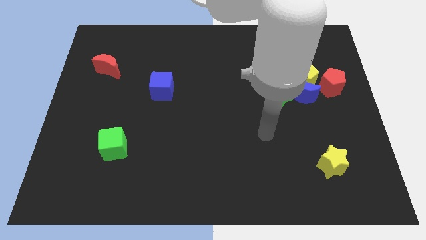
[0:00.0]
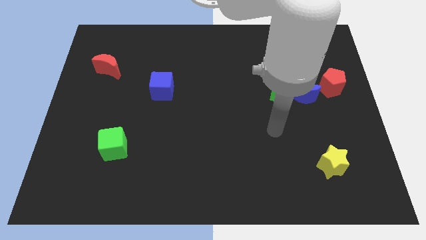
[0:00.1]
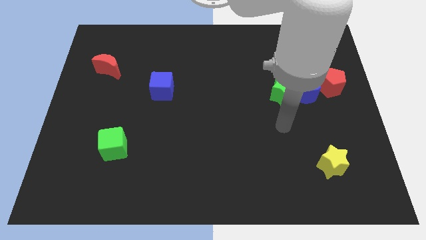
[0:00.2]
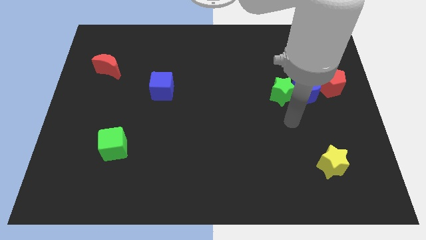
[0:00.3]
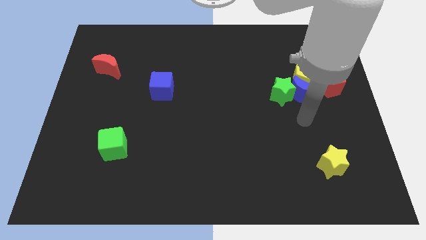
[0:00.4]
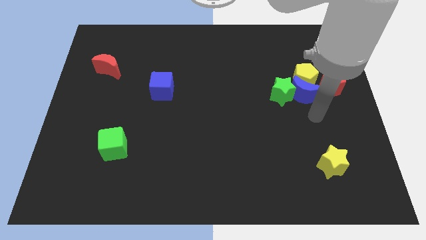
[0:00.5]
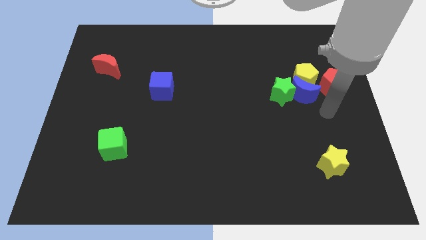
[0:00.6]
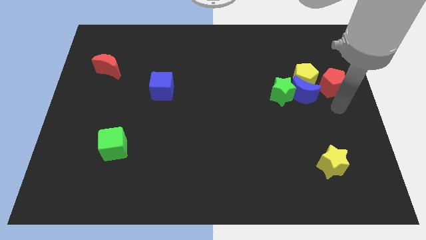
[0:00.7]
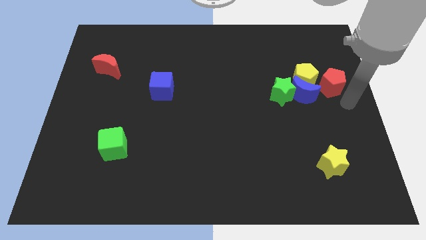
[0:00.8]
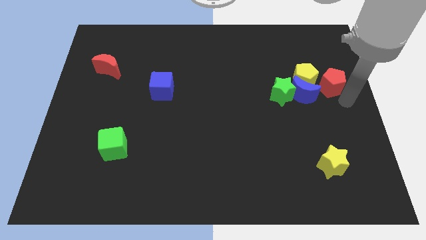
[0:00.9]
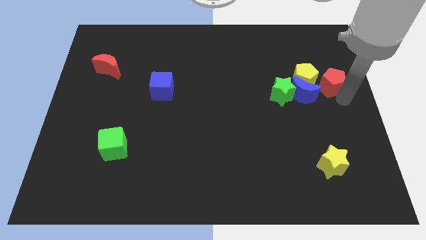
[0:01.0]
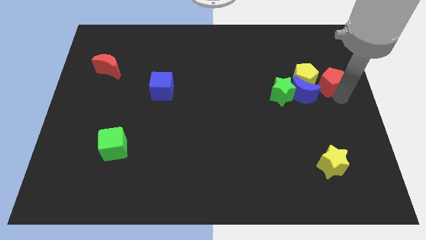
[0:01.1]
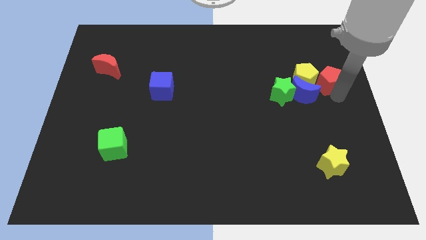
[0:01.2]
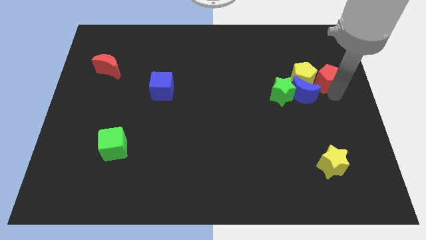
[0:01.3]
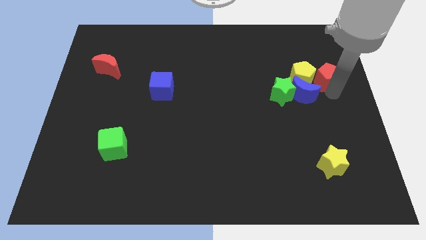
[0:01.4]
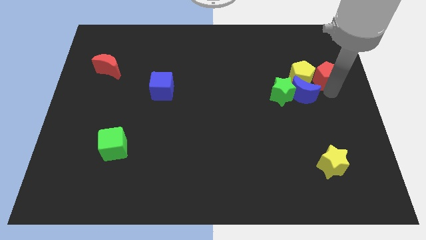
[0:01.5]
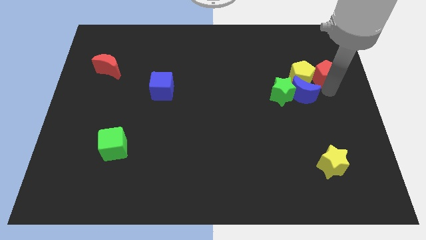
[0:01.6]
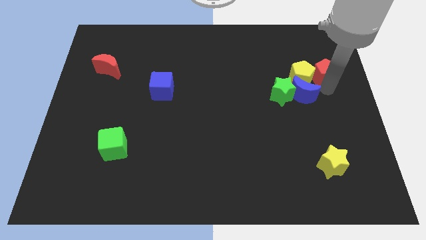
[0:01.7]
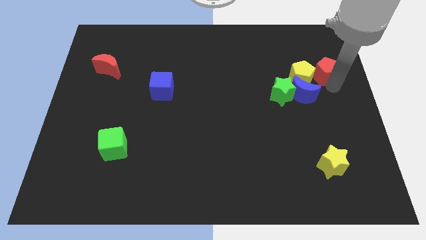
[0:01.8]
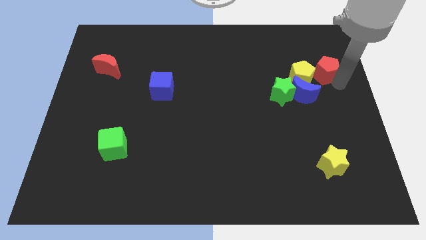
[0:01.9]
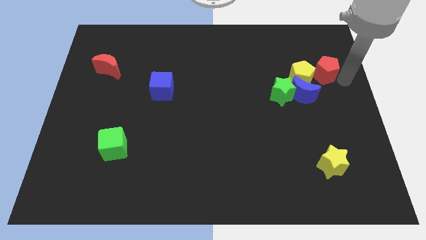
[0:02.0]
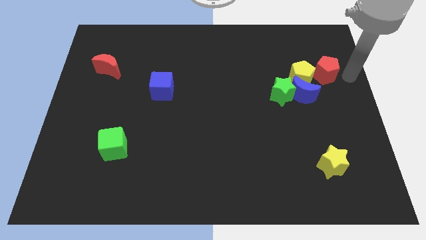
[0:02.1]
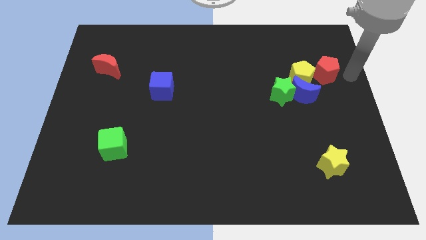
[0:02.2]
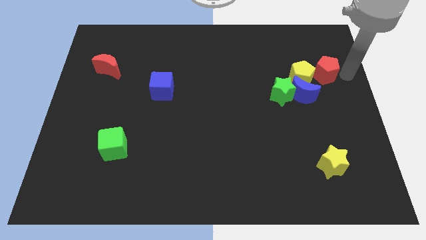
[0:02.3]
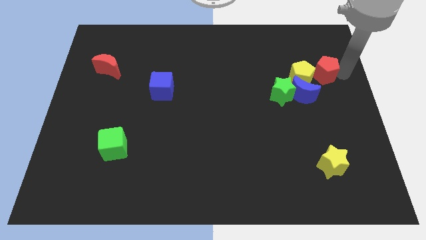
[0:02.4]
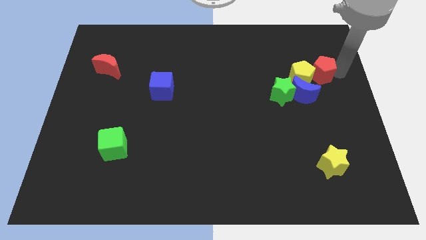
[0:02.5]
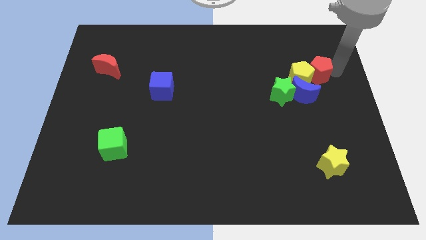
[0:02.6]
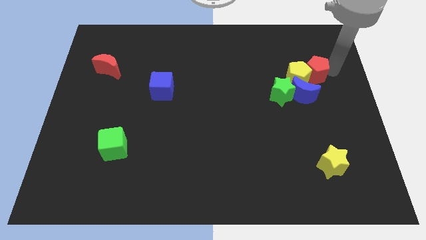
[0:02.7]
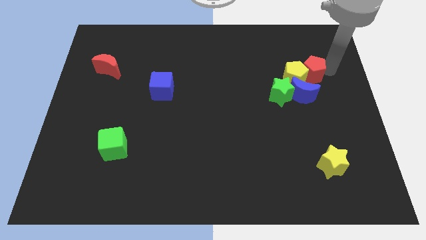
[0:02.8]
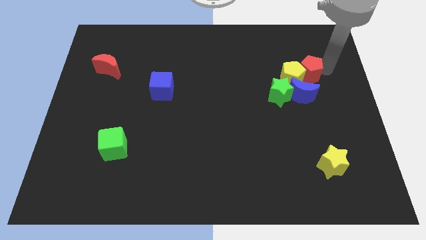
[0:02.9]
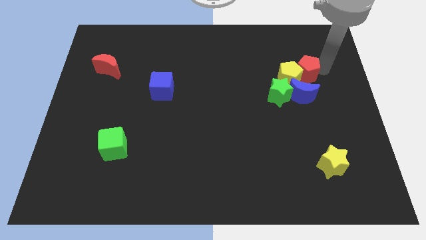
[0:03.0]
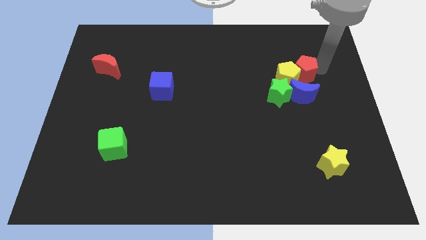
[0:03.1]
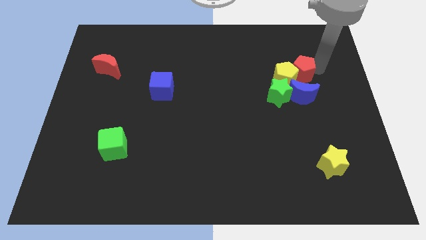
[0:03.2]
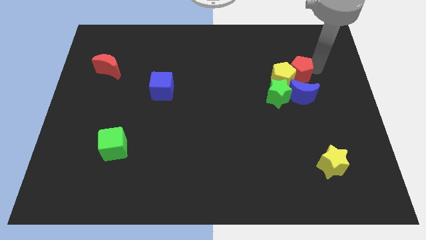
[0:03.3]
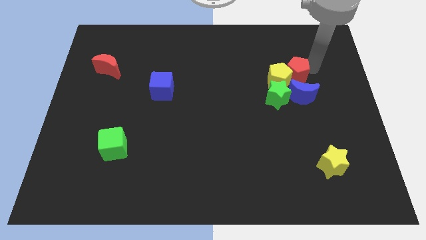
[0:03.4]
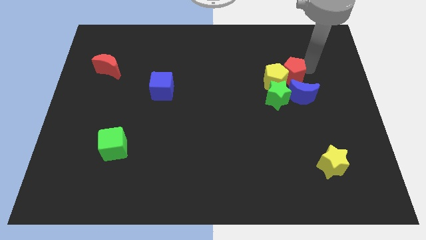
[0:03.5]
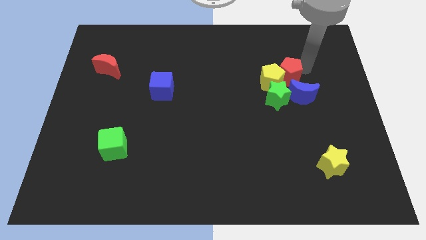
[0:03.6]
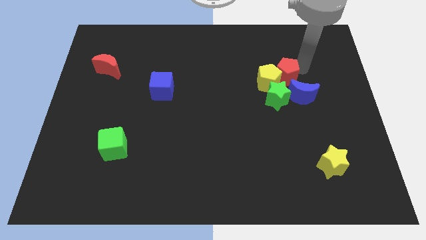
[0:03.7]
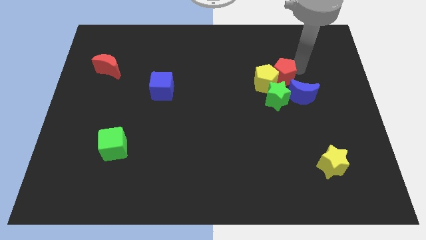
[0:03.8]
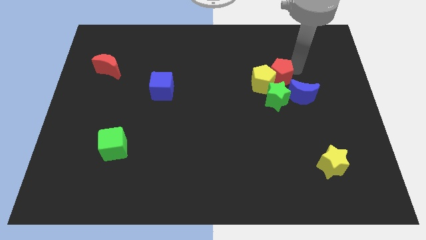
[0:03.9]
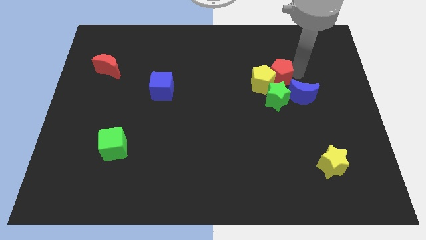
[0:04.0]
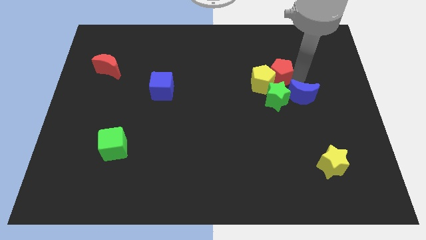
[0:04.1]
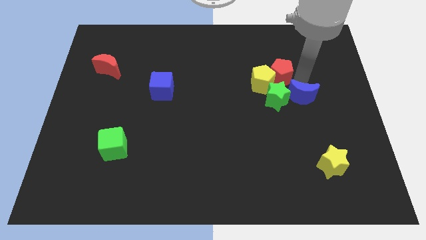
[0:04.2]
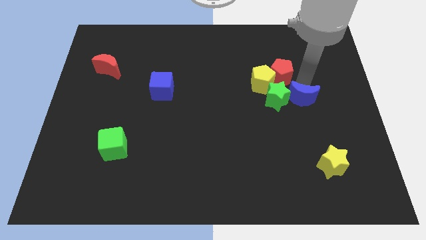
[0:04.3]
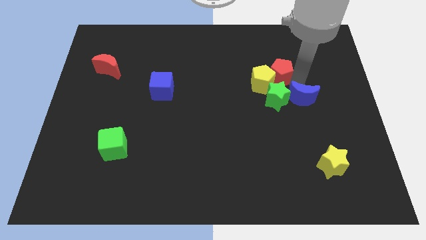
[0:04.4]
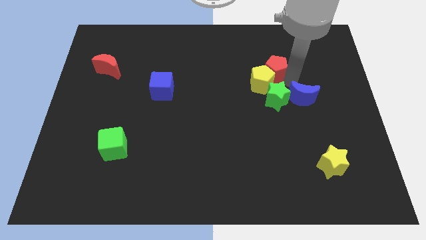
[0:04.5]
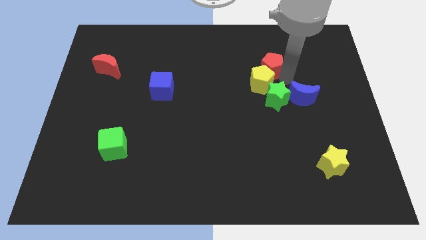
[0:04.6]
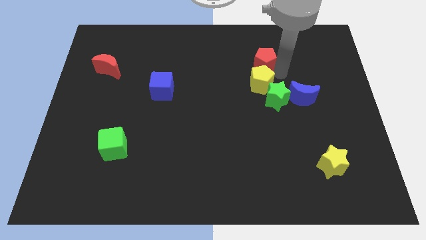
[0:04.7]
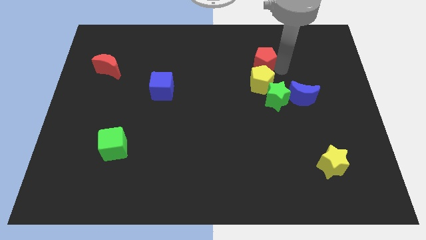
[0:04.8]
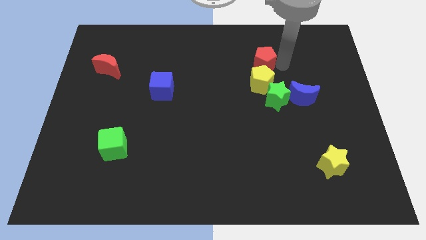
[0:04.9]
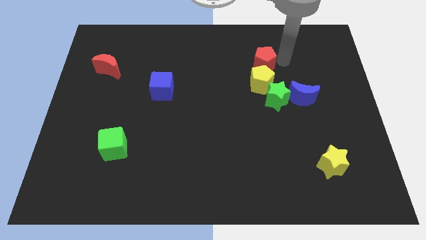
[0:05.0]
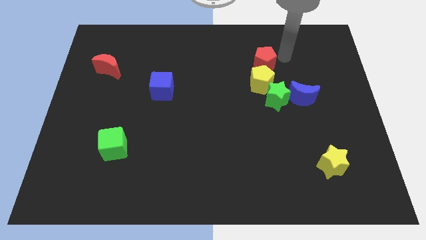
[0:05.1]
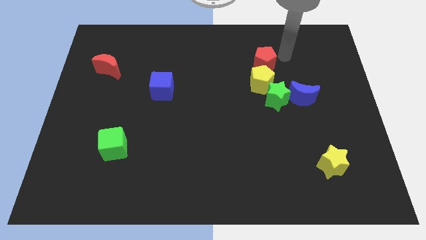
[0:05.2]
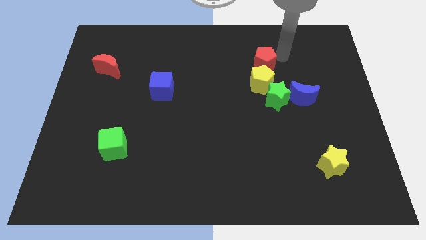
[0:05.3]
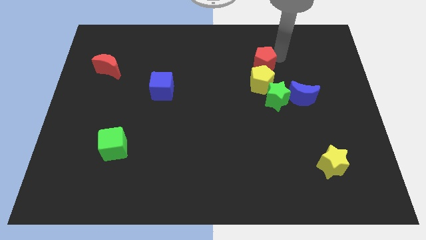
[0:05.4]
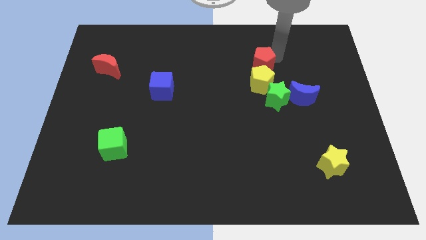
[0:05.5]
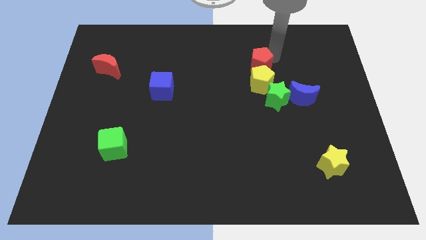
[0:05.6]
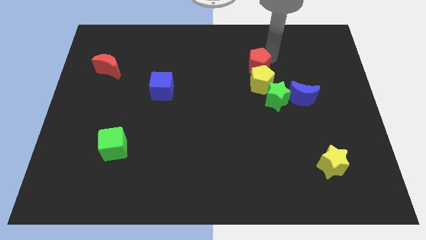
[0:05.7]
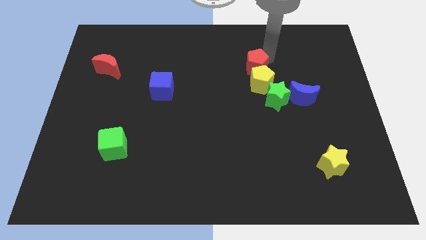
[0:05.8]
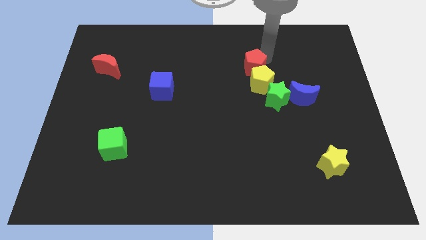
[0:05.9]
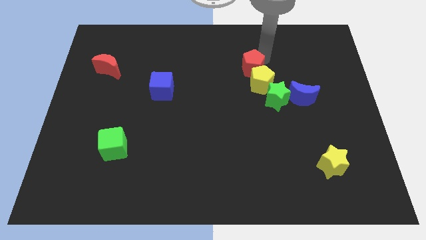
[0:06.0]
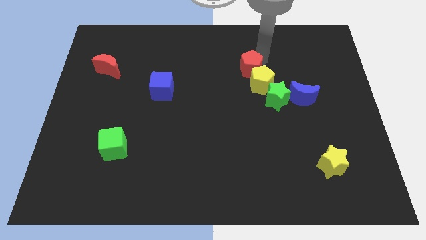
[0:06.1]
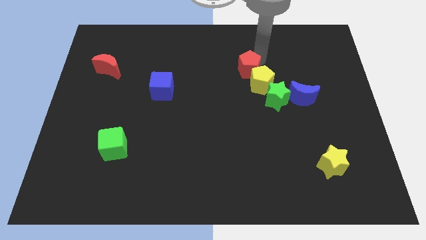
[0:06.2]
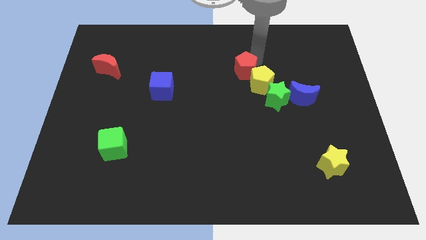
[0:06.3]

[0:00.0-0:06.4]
push the red pentagon left

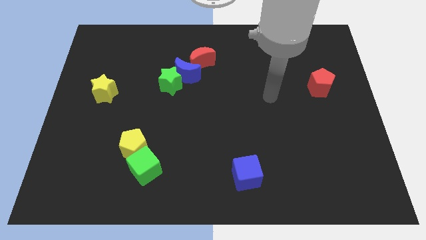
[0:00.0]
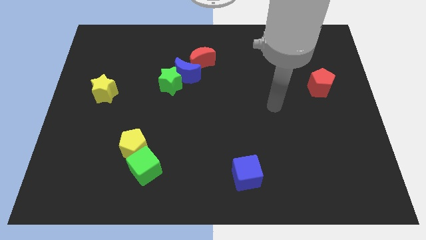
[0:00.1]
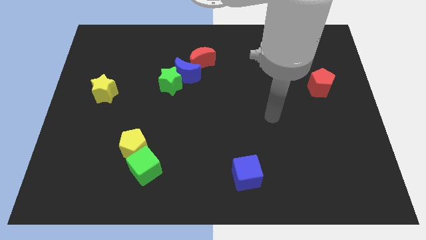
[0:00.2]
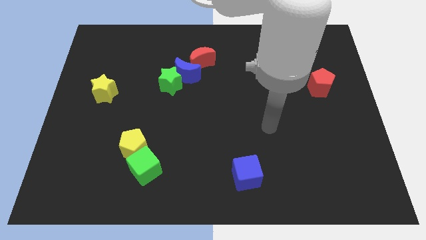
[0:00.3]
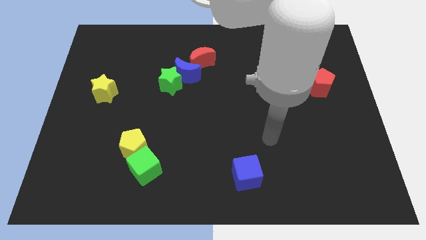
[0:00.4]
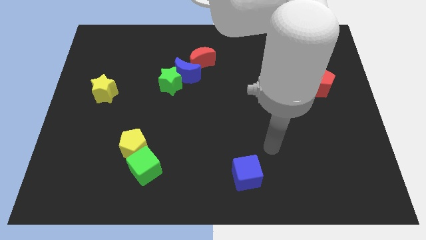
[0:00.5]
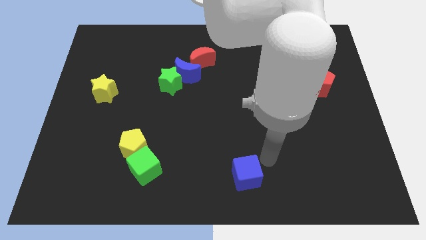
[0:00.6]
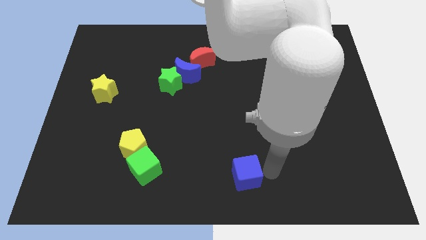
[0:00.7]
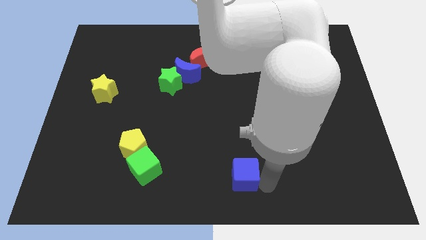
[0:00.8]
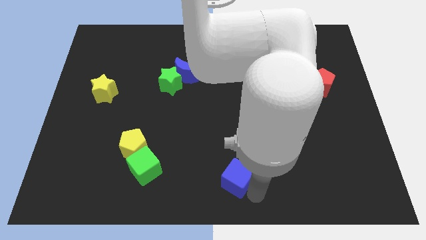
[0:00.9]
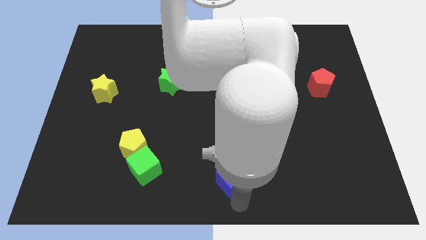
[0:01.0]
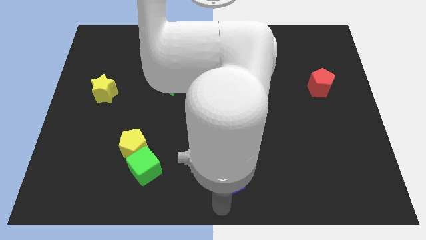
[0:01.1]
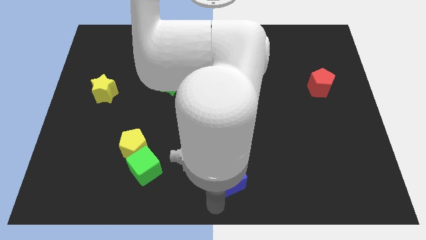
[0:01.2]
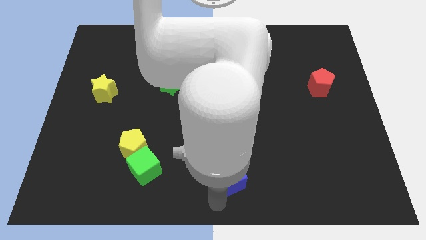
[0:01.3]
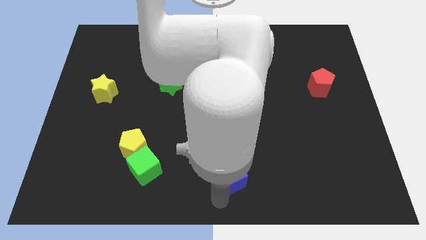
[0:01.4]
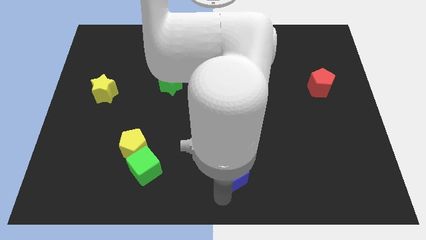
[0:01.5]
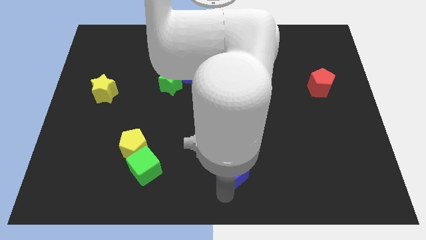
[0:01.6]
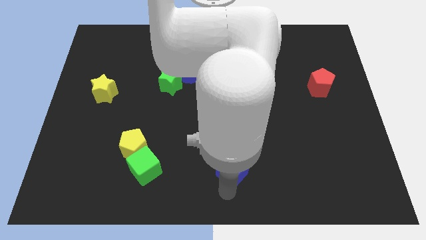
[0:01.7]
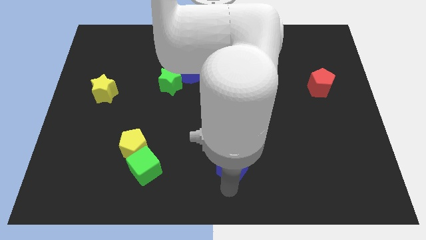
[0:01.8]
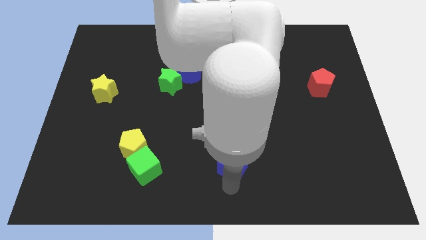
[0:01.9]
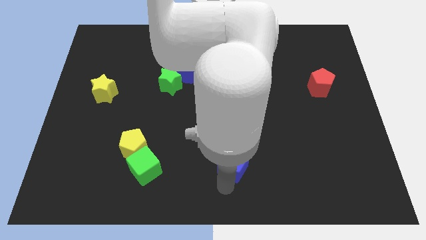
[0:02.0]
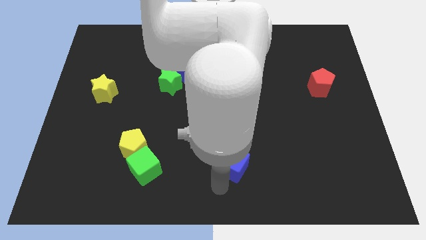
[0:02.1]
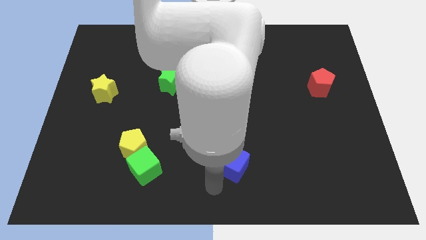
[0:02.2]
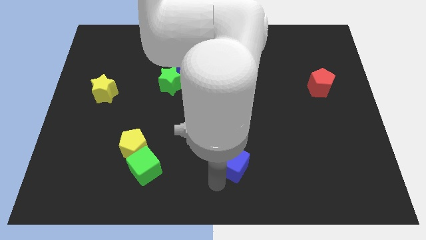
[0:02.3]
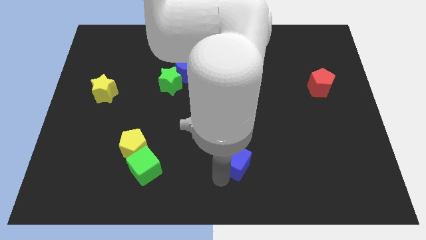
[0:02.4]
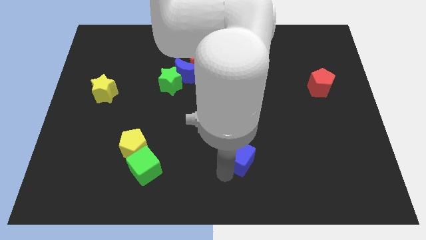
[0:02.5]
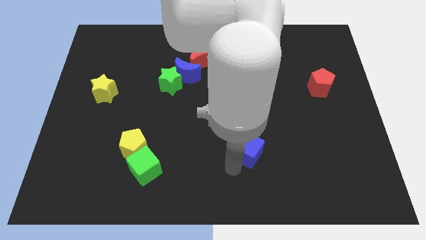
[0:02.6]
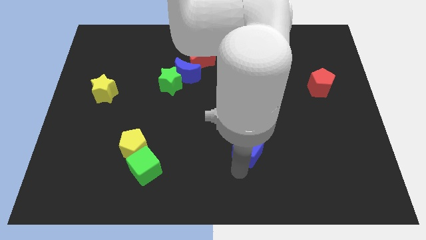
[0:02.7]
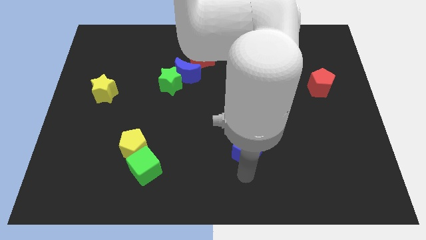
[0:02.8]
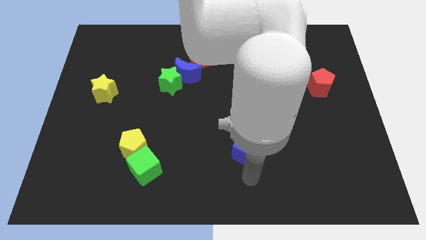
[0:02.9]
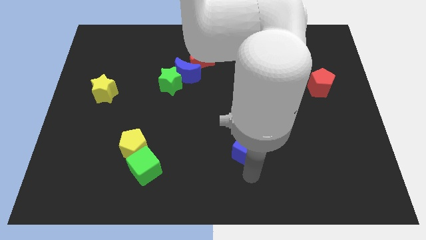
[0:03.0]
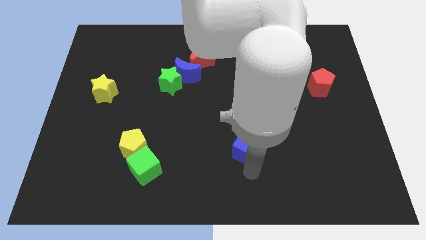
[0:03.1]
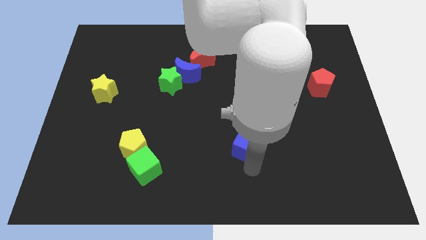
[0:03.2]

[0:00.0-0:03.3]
slightly move the blue cube upwards
